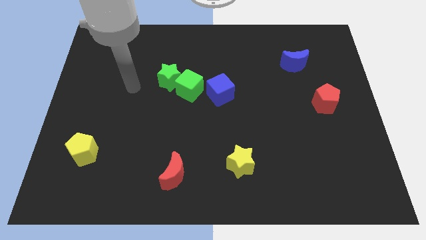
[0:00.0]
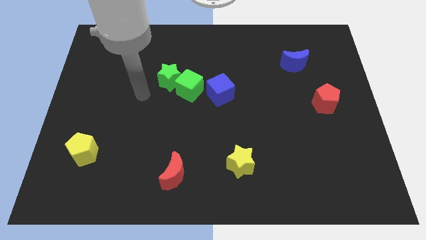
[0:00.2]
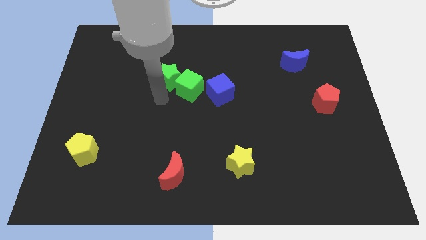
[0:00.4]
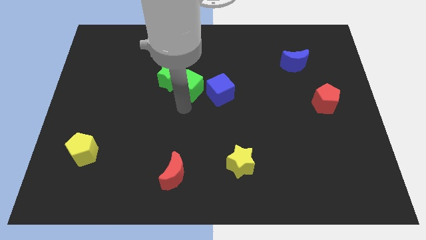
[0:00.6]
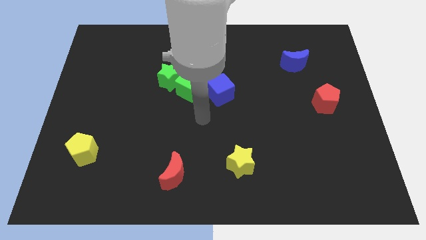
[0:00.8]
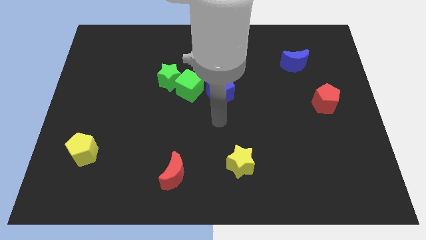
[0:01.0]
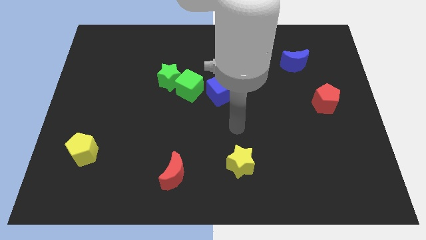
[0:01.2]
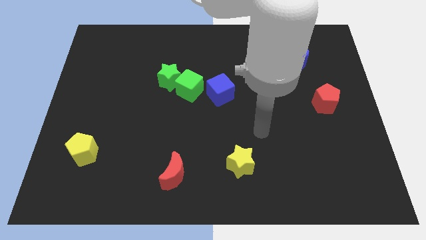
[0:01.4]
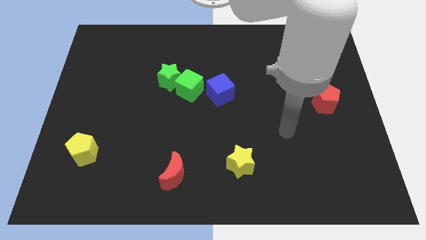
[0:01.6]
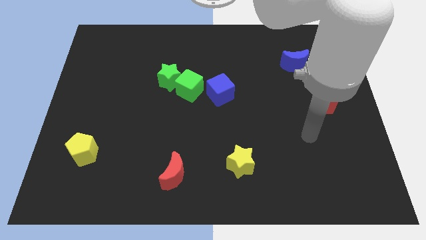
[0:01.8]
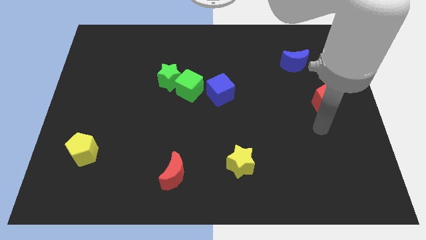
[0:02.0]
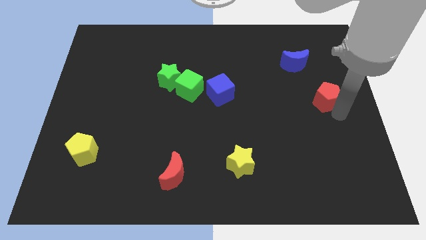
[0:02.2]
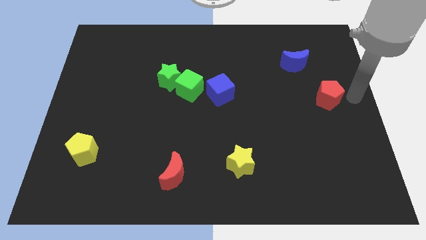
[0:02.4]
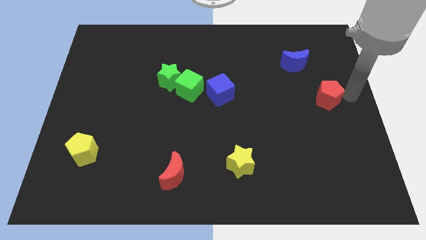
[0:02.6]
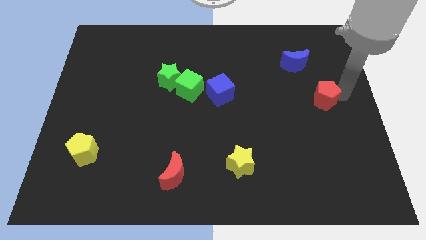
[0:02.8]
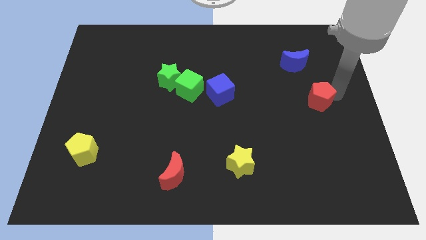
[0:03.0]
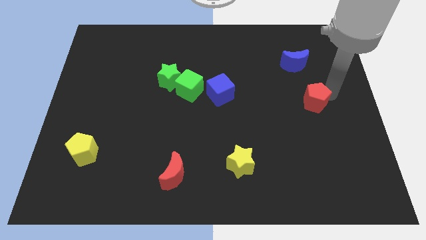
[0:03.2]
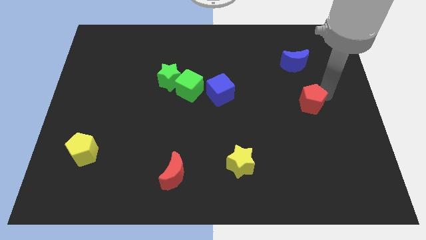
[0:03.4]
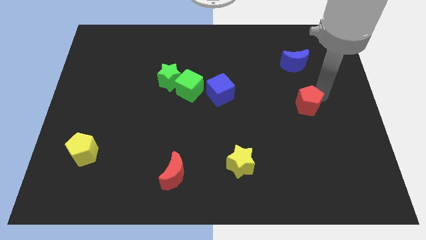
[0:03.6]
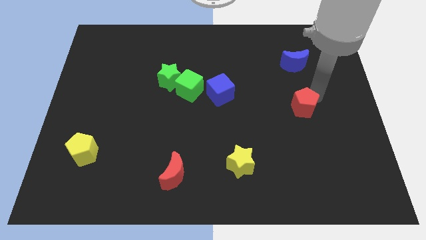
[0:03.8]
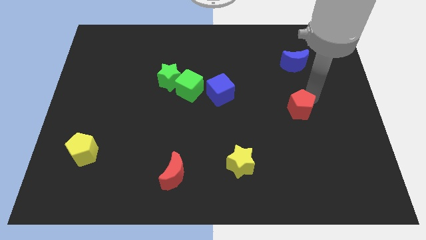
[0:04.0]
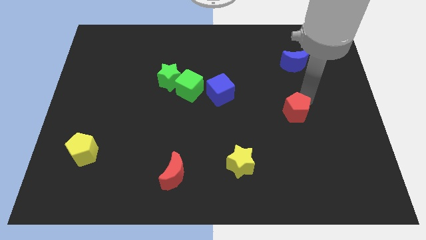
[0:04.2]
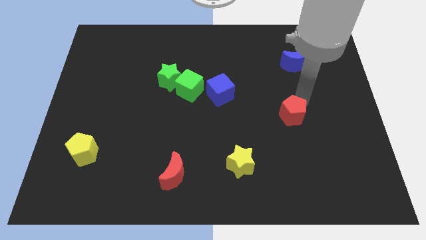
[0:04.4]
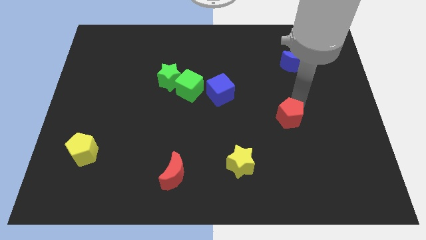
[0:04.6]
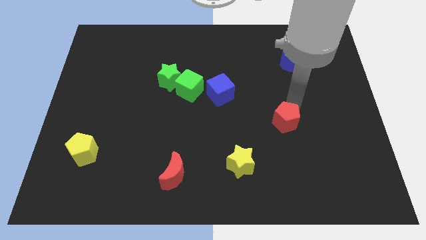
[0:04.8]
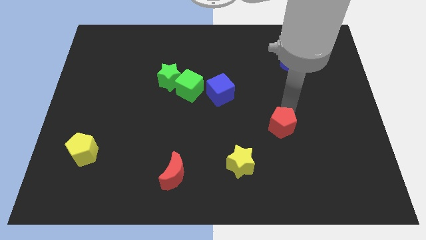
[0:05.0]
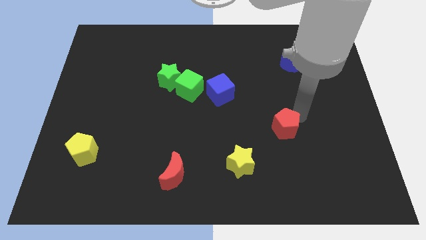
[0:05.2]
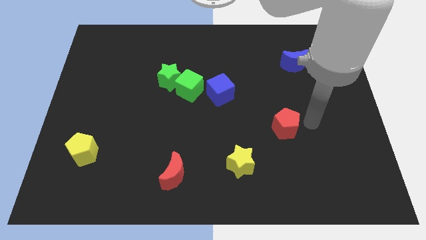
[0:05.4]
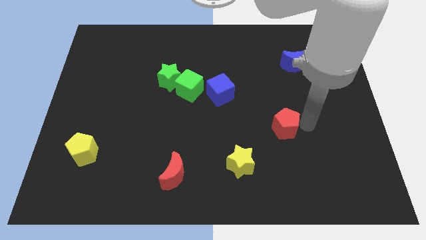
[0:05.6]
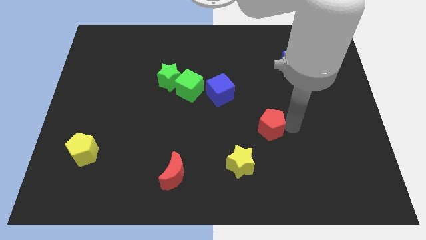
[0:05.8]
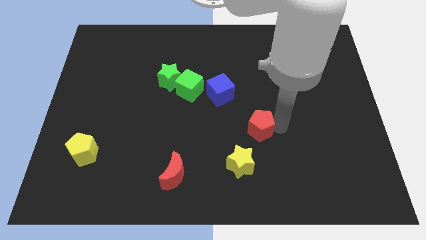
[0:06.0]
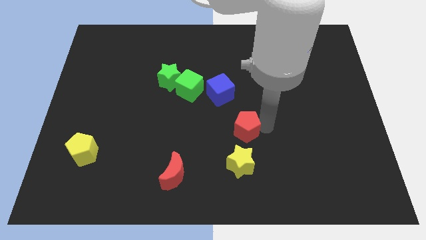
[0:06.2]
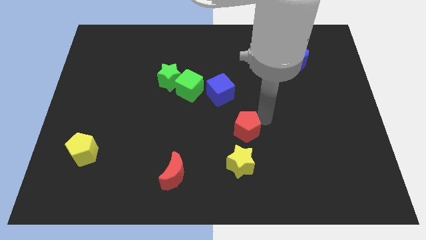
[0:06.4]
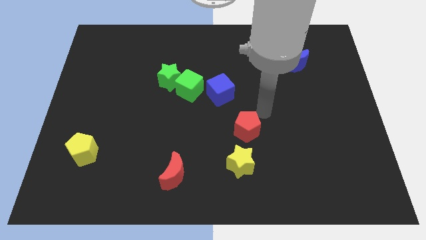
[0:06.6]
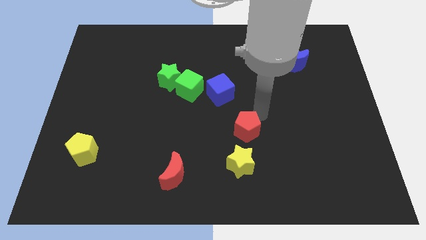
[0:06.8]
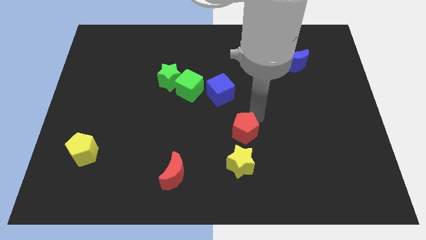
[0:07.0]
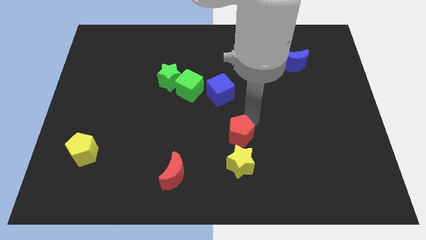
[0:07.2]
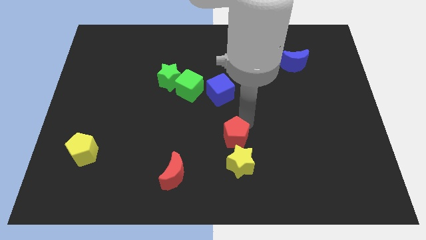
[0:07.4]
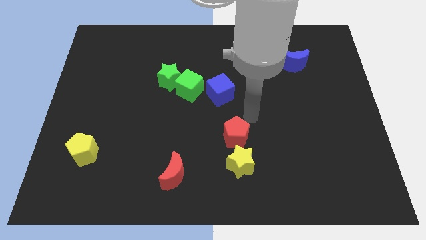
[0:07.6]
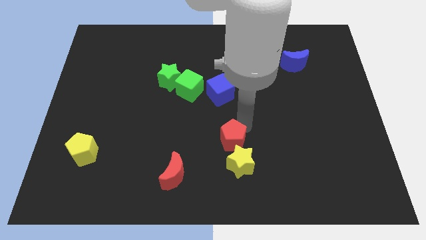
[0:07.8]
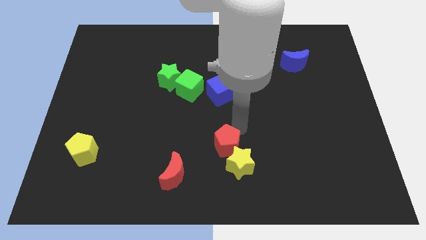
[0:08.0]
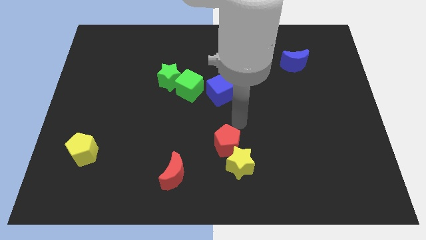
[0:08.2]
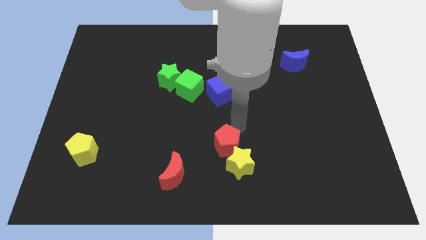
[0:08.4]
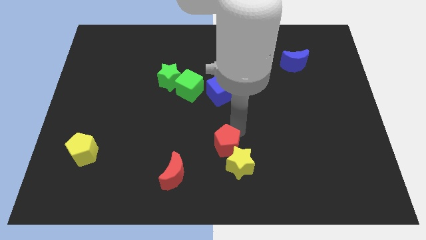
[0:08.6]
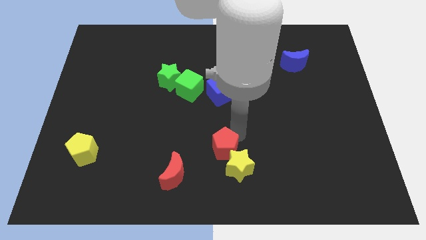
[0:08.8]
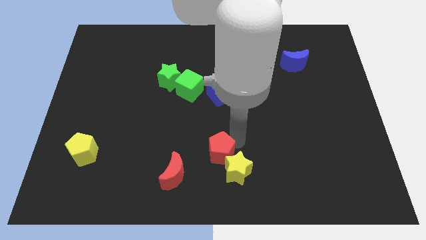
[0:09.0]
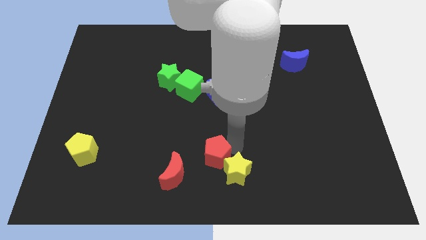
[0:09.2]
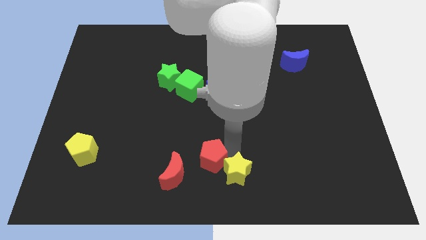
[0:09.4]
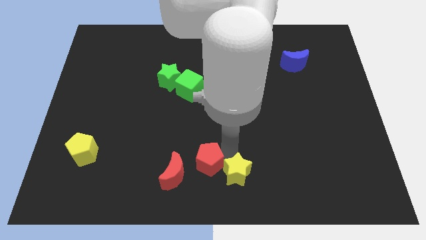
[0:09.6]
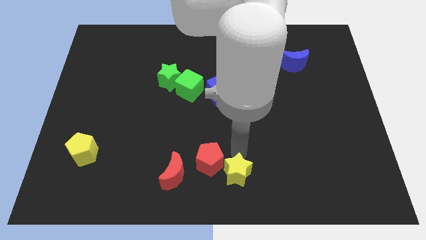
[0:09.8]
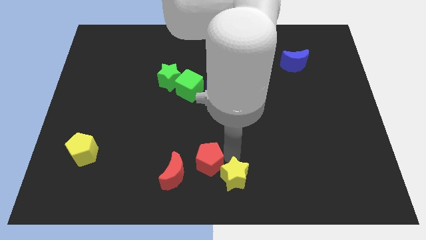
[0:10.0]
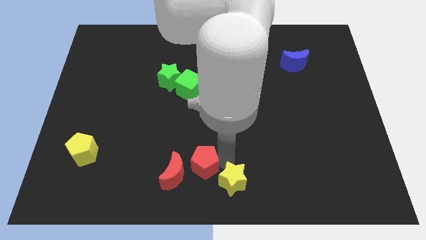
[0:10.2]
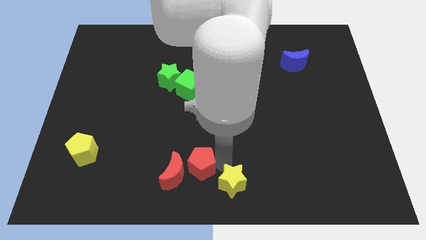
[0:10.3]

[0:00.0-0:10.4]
push the red pentagon close to the red moon

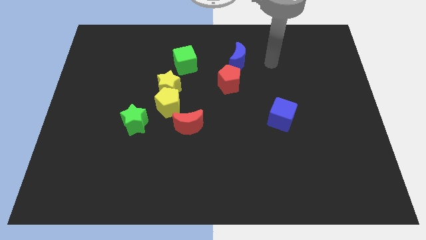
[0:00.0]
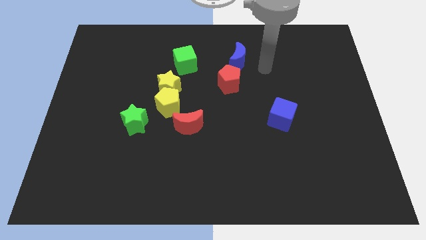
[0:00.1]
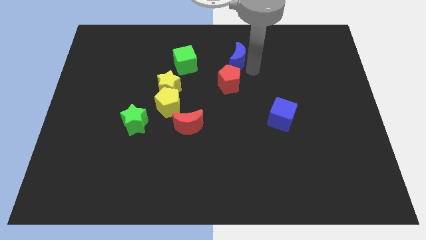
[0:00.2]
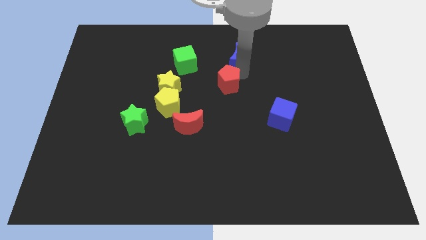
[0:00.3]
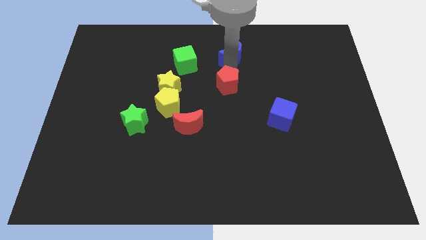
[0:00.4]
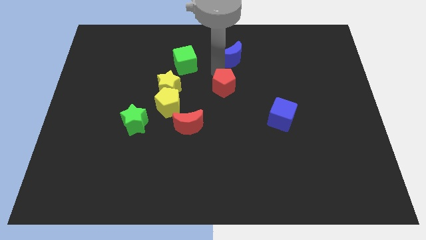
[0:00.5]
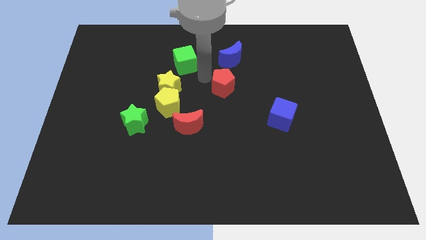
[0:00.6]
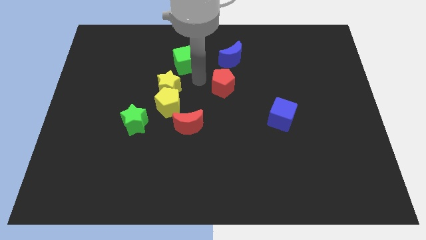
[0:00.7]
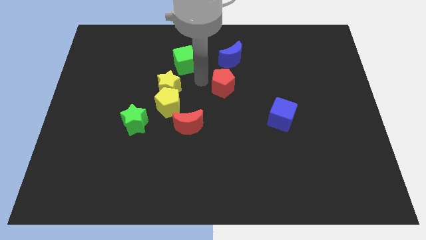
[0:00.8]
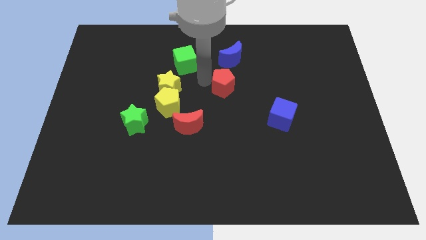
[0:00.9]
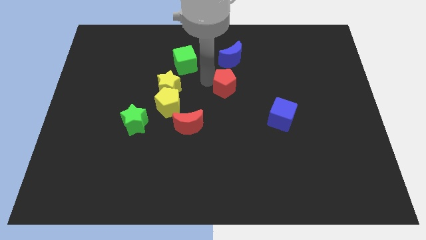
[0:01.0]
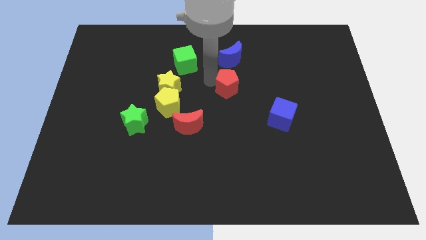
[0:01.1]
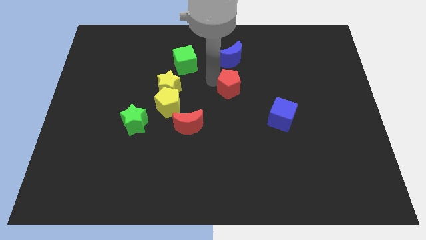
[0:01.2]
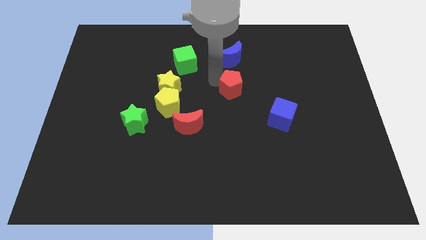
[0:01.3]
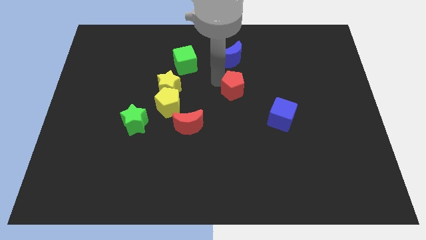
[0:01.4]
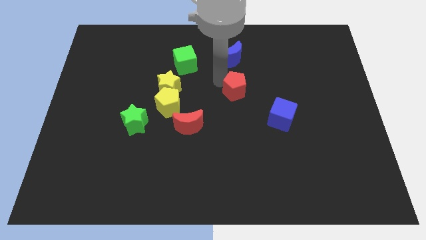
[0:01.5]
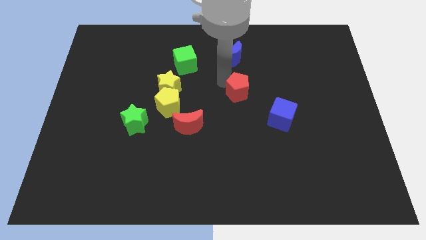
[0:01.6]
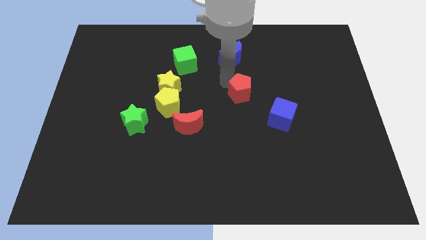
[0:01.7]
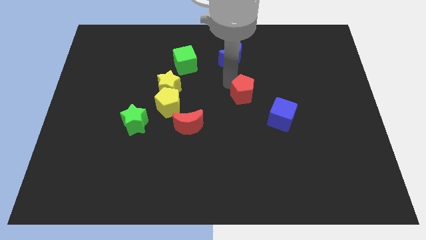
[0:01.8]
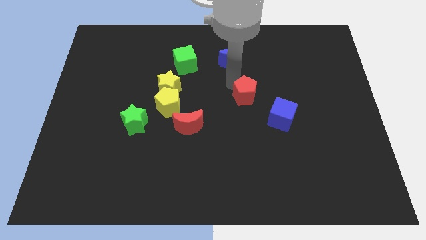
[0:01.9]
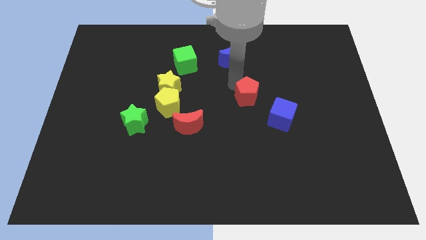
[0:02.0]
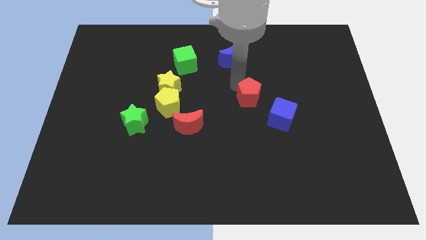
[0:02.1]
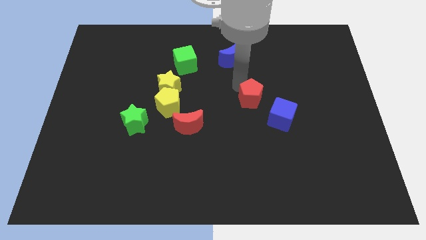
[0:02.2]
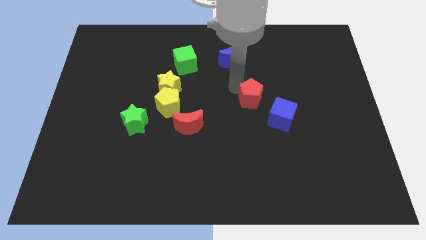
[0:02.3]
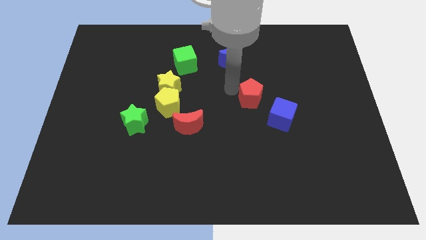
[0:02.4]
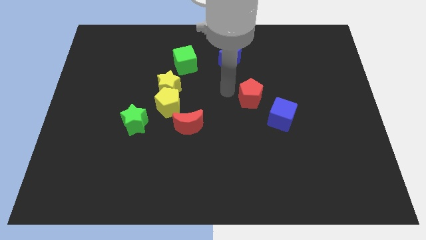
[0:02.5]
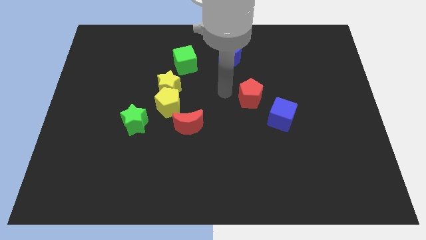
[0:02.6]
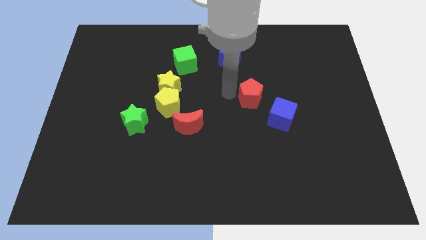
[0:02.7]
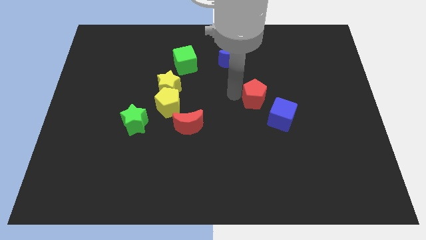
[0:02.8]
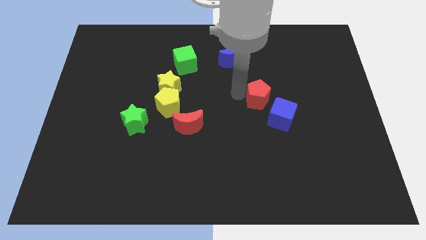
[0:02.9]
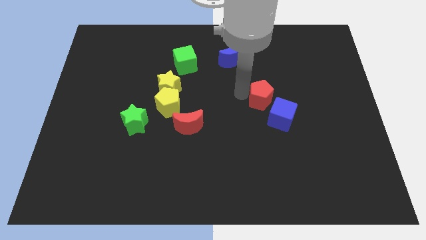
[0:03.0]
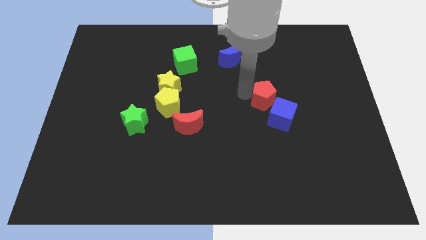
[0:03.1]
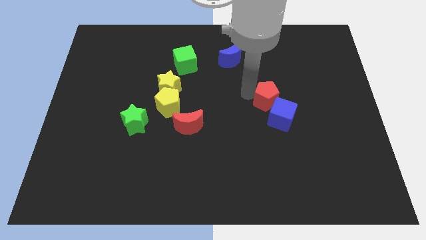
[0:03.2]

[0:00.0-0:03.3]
put the red pentagon to the blue cube
